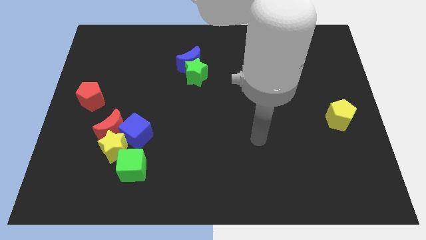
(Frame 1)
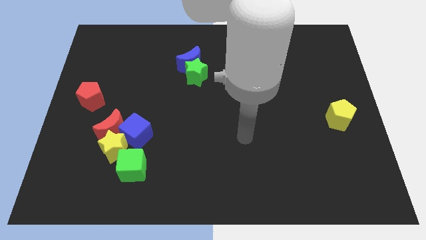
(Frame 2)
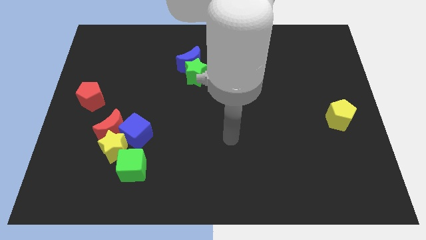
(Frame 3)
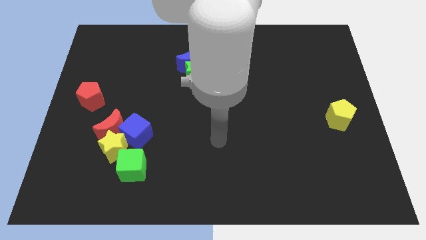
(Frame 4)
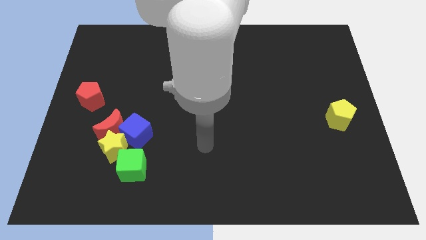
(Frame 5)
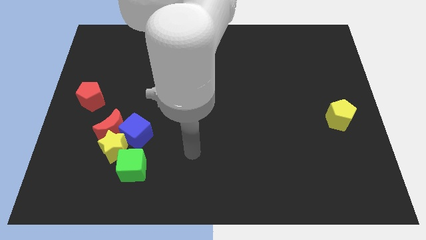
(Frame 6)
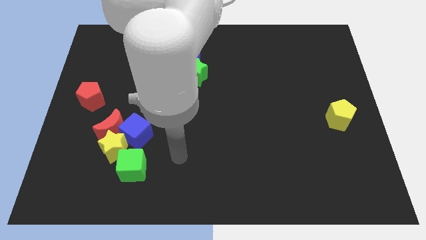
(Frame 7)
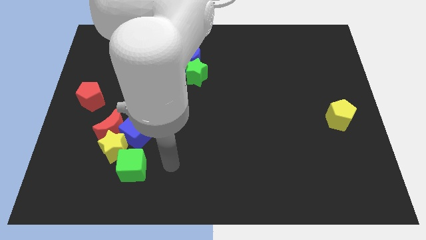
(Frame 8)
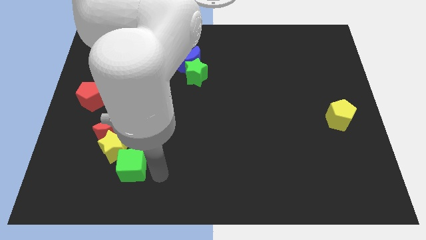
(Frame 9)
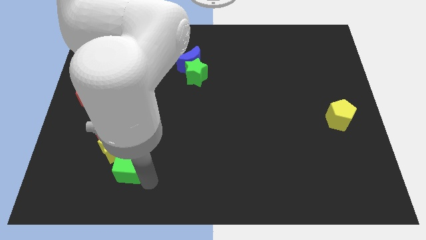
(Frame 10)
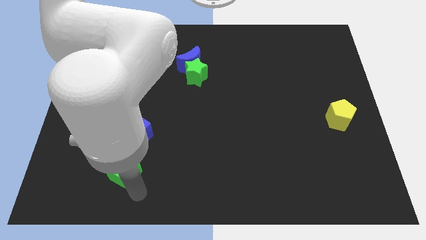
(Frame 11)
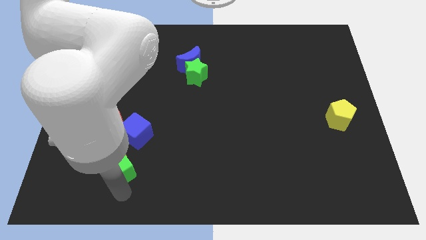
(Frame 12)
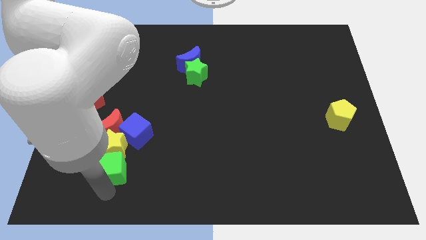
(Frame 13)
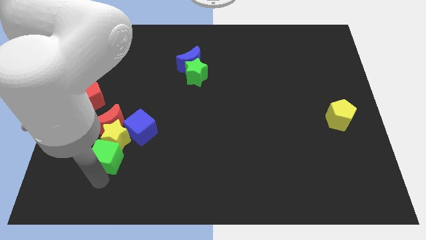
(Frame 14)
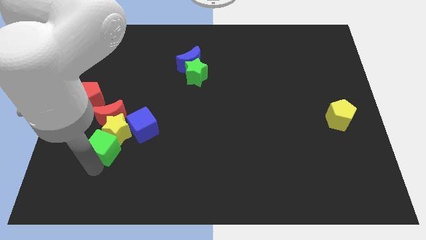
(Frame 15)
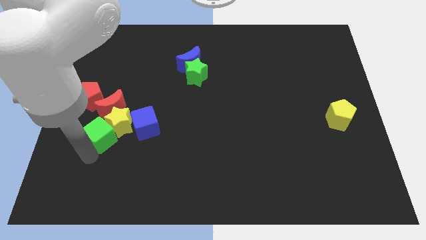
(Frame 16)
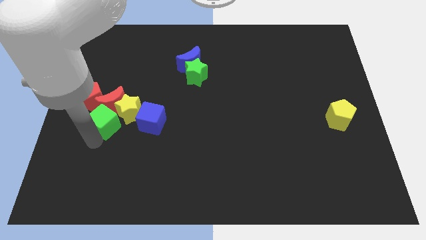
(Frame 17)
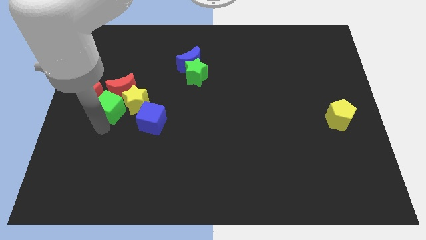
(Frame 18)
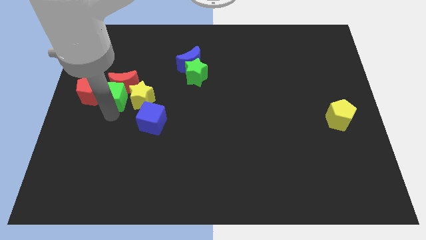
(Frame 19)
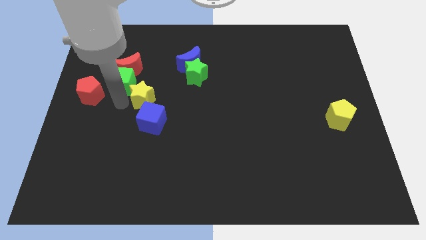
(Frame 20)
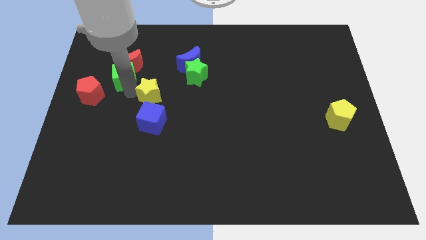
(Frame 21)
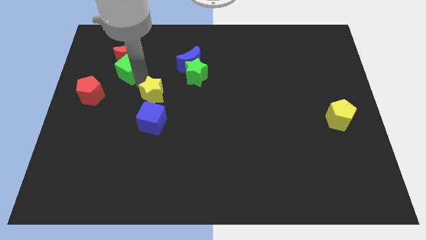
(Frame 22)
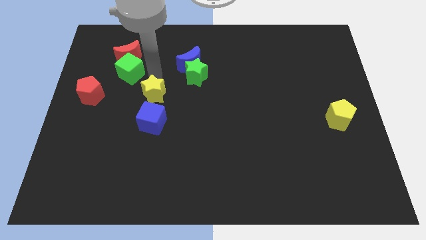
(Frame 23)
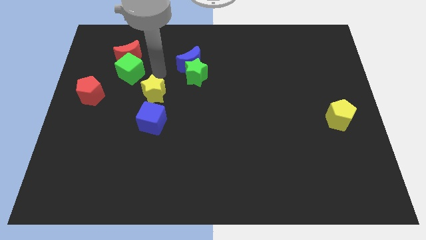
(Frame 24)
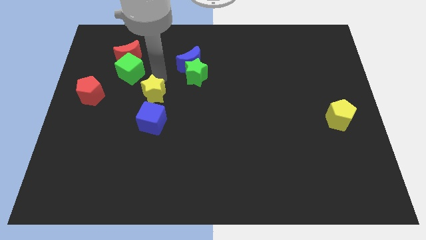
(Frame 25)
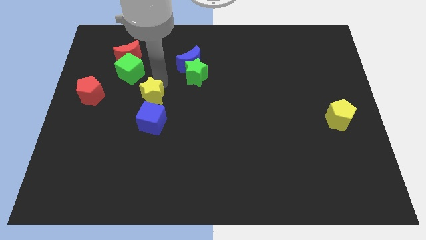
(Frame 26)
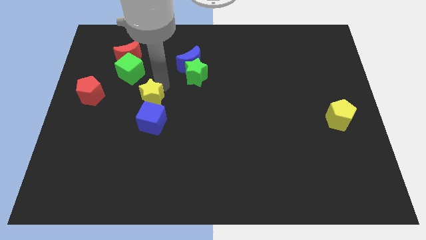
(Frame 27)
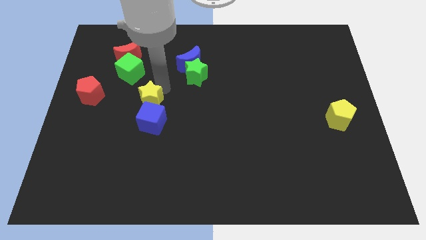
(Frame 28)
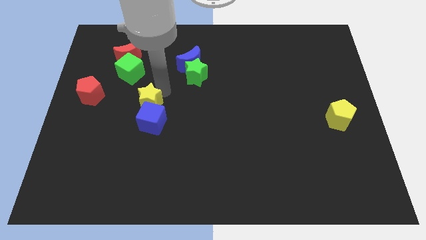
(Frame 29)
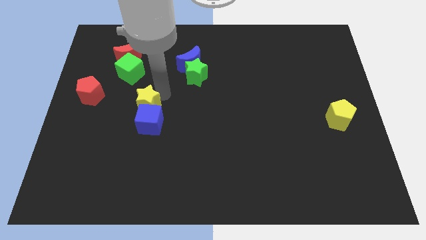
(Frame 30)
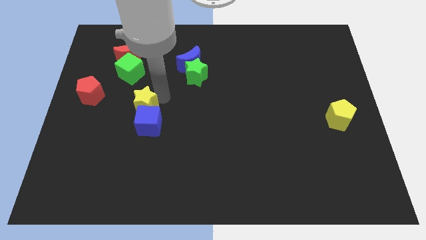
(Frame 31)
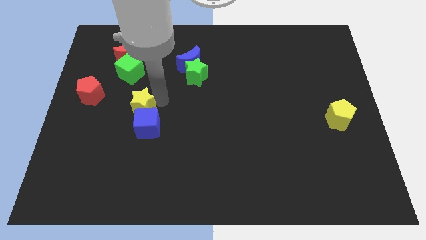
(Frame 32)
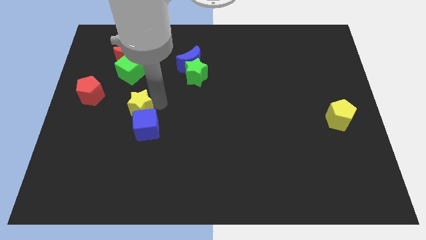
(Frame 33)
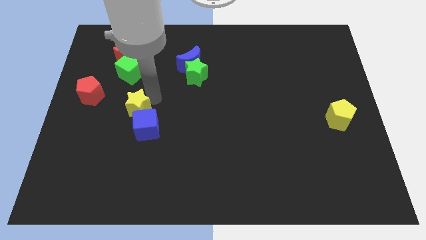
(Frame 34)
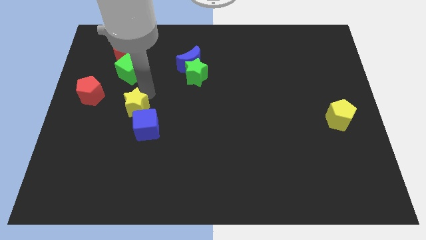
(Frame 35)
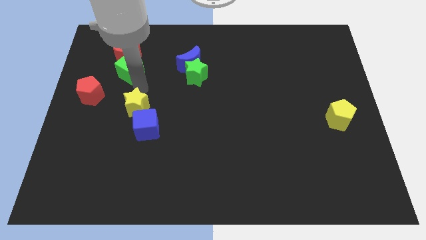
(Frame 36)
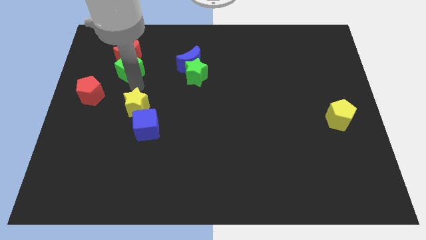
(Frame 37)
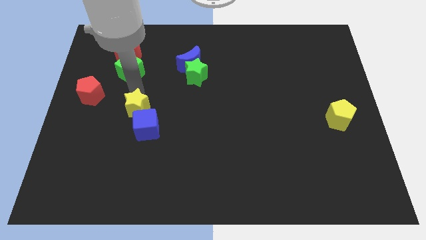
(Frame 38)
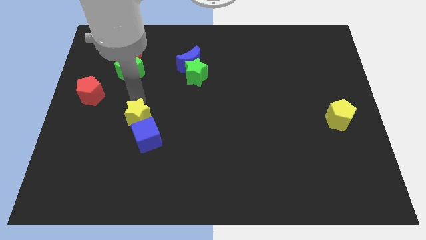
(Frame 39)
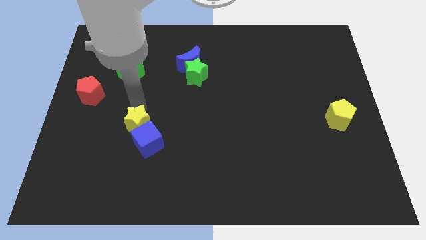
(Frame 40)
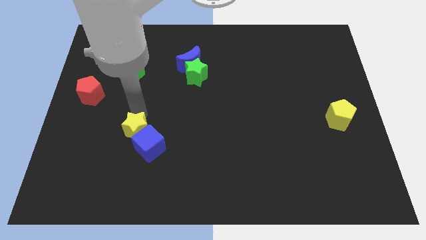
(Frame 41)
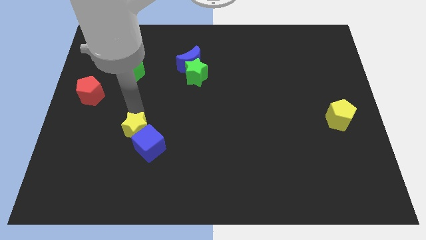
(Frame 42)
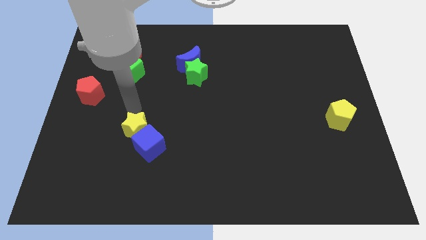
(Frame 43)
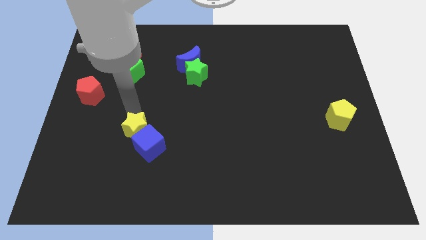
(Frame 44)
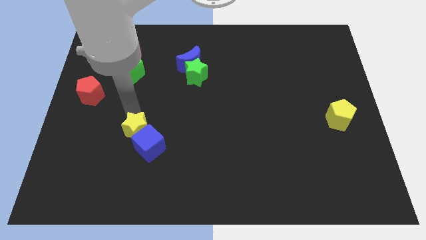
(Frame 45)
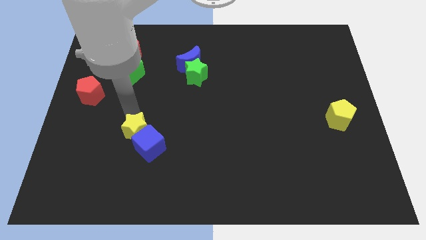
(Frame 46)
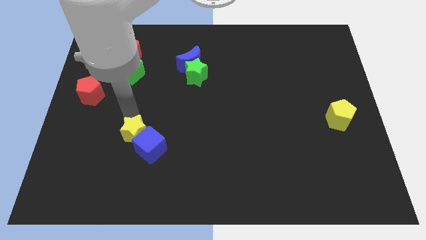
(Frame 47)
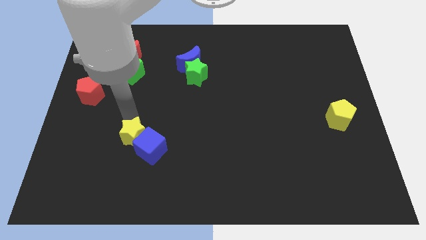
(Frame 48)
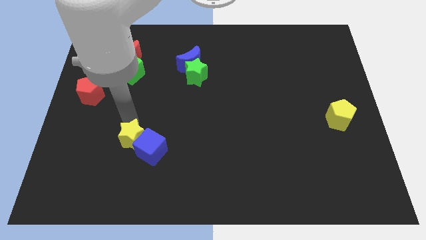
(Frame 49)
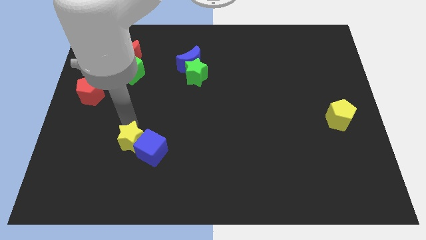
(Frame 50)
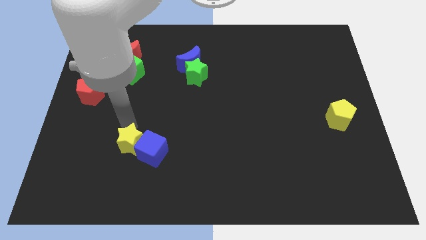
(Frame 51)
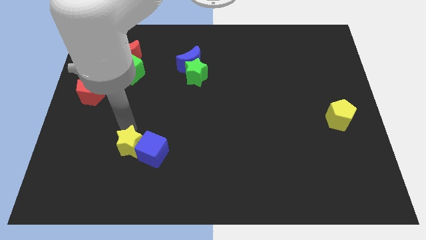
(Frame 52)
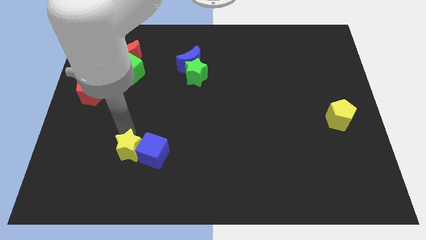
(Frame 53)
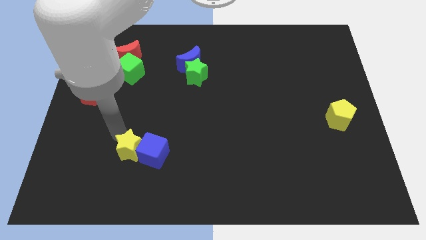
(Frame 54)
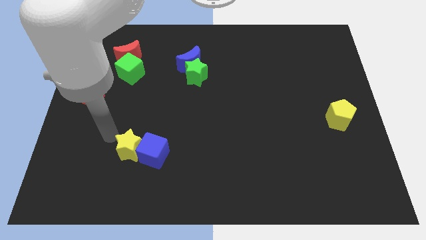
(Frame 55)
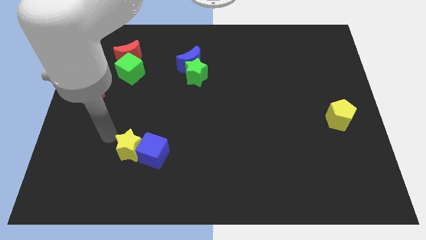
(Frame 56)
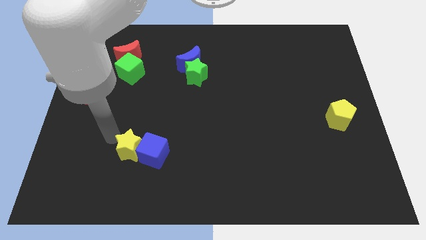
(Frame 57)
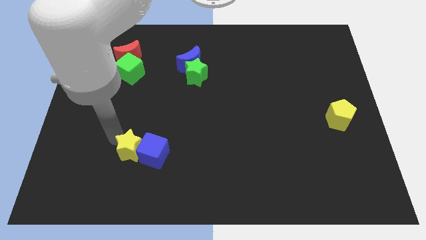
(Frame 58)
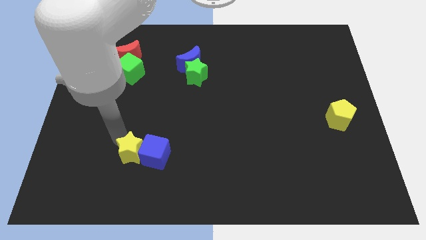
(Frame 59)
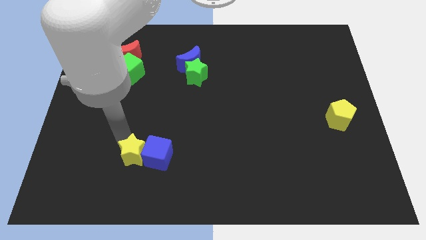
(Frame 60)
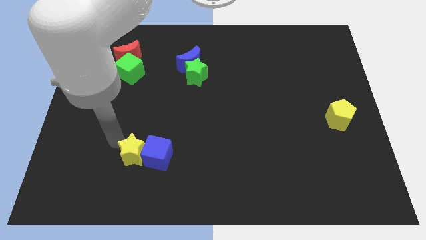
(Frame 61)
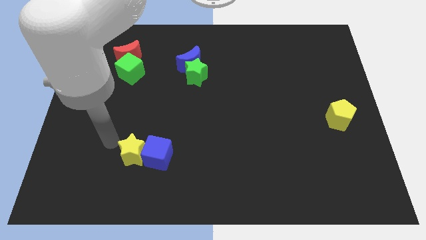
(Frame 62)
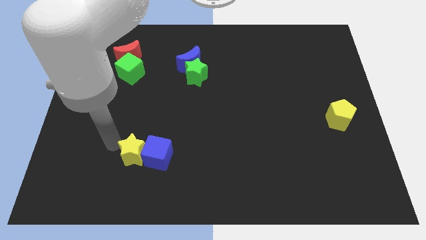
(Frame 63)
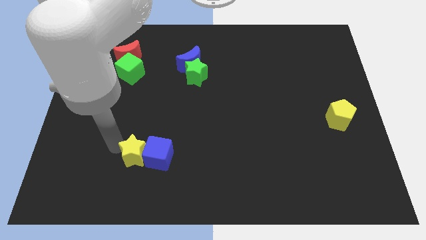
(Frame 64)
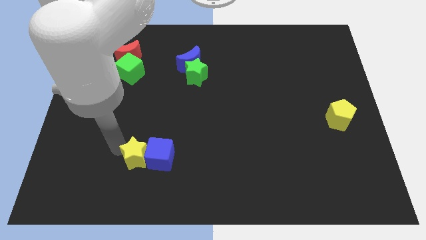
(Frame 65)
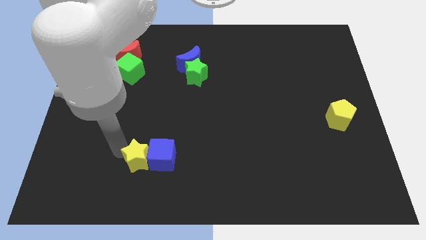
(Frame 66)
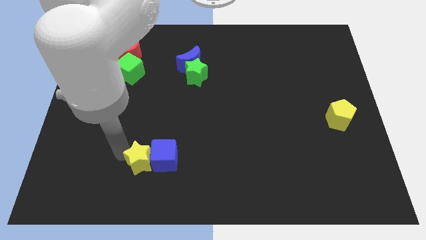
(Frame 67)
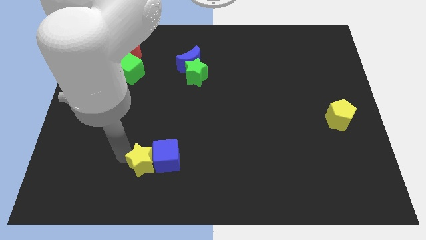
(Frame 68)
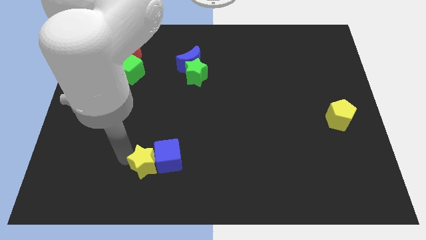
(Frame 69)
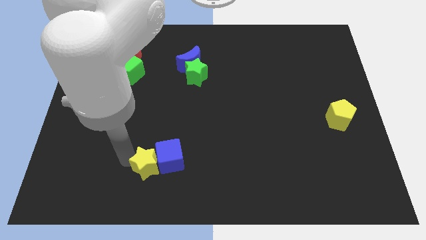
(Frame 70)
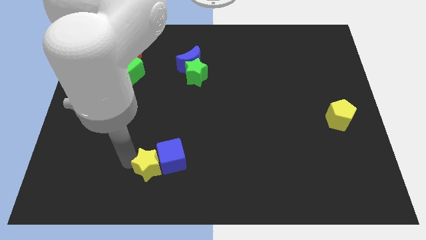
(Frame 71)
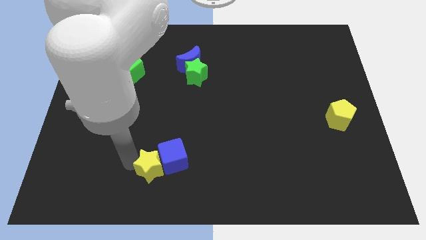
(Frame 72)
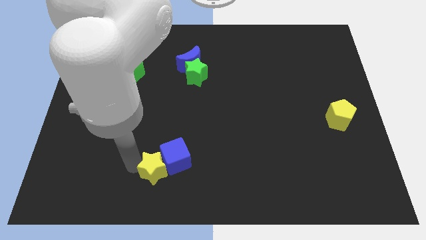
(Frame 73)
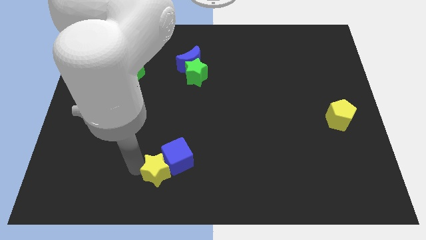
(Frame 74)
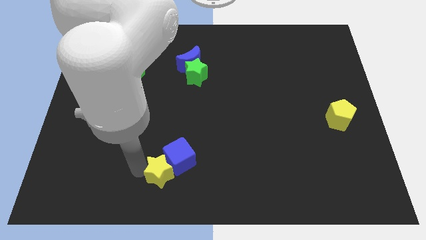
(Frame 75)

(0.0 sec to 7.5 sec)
move the yellow star to the bottom side
